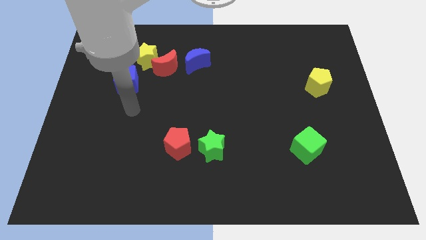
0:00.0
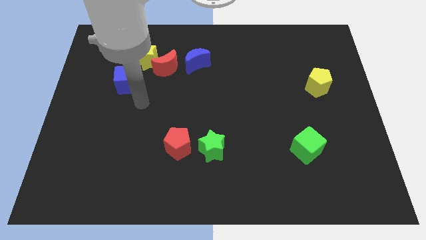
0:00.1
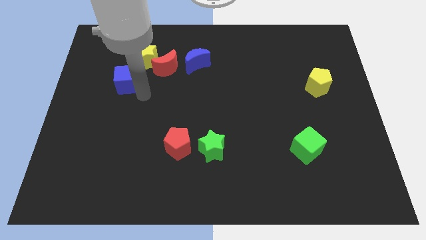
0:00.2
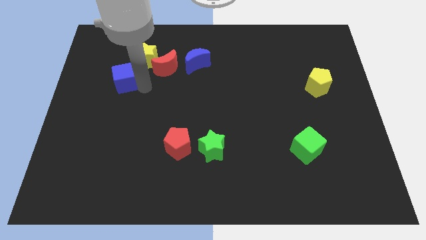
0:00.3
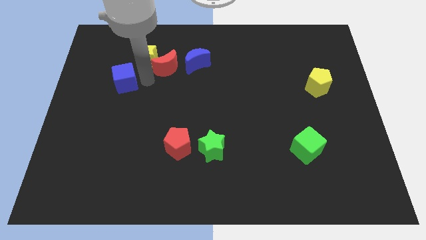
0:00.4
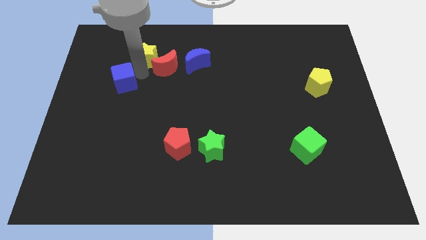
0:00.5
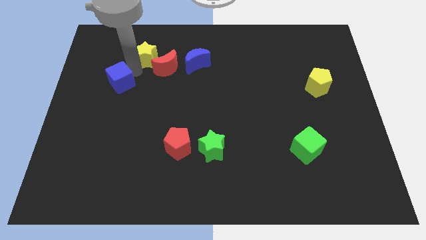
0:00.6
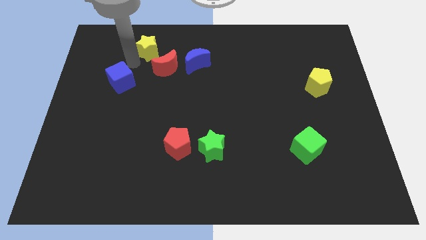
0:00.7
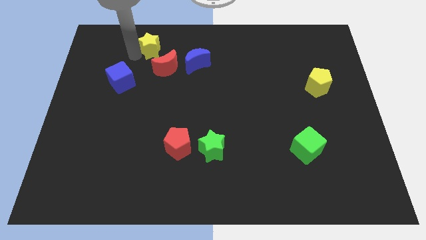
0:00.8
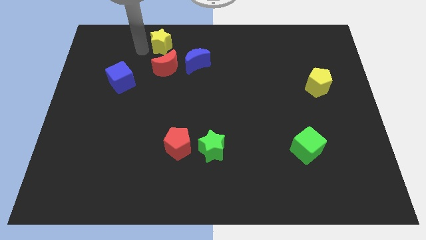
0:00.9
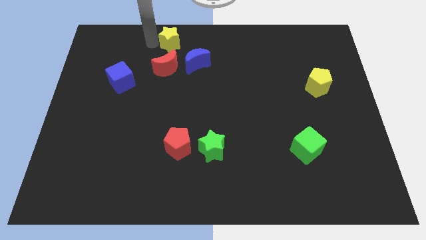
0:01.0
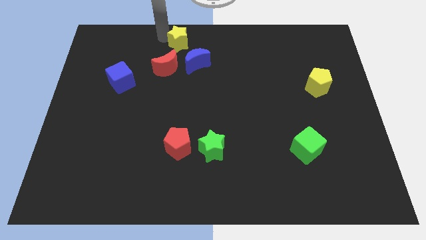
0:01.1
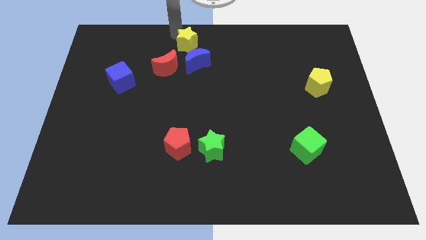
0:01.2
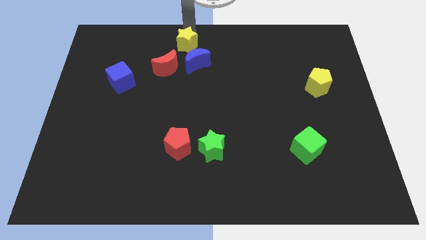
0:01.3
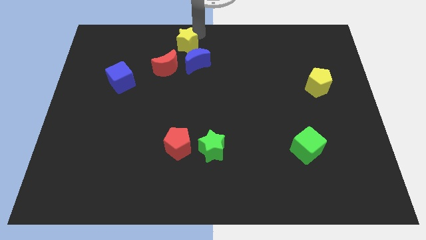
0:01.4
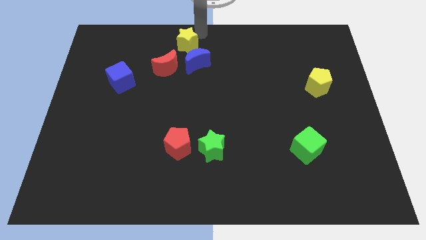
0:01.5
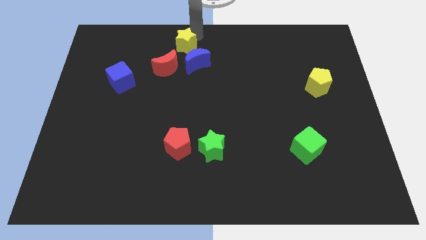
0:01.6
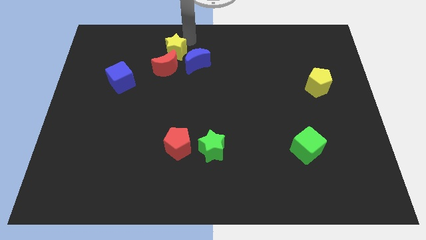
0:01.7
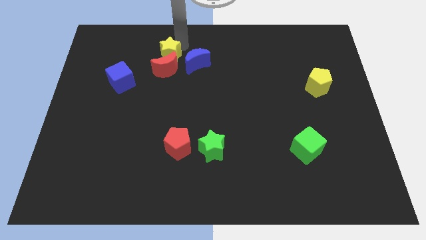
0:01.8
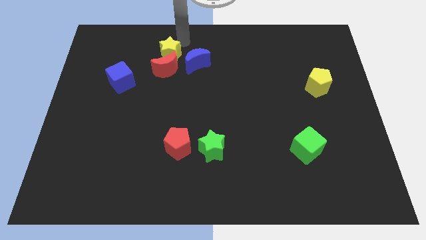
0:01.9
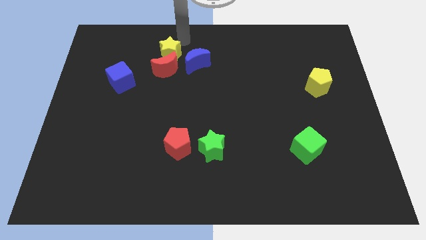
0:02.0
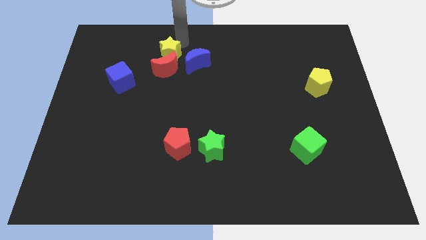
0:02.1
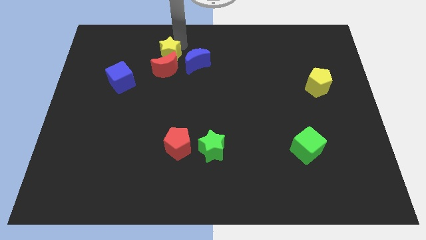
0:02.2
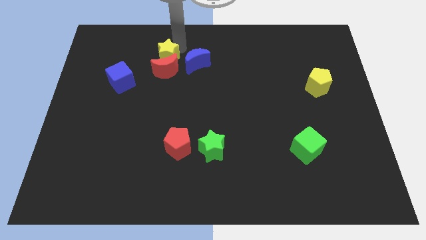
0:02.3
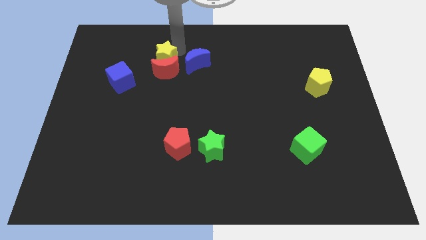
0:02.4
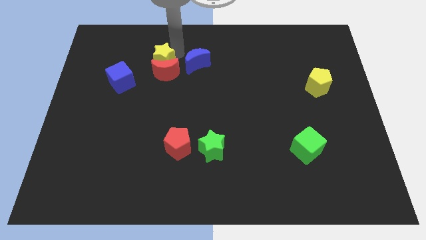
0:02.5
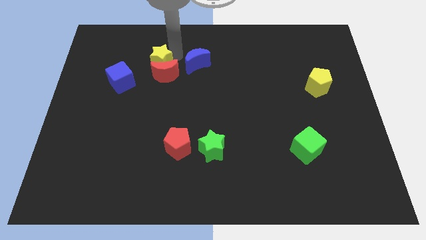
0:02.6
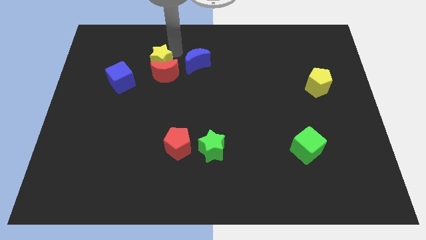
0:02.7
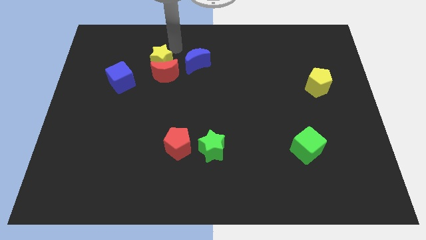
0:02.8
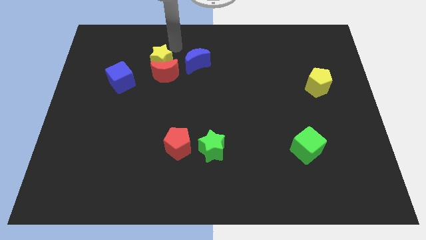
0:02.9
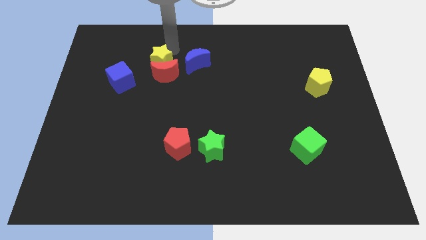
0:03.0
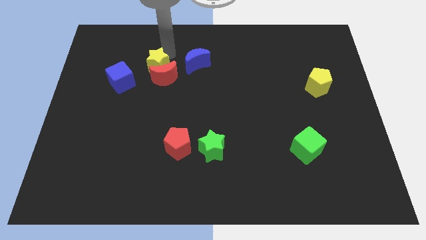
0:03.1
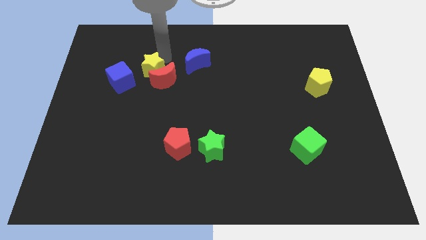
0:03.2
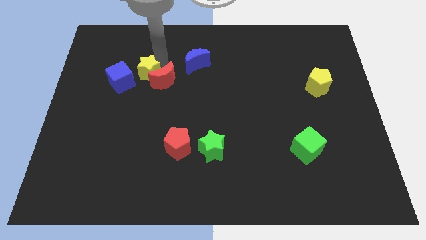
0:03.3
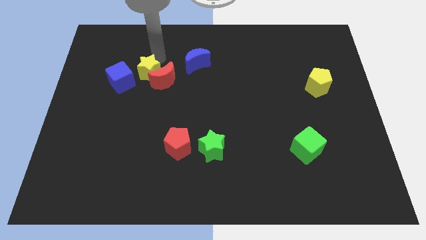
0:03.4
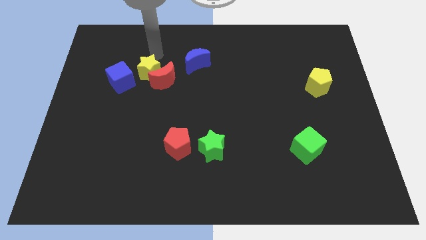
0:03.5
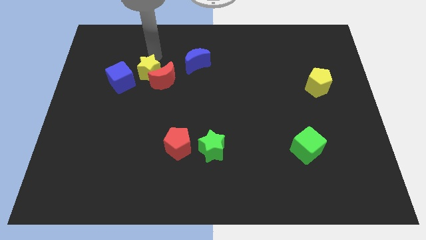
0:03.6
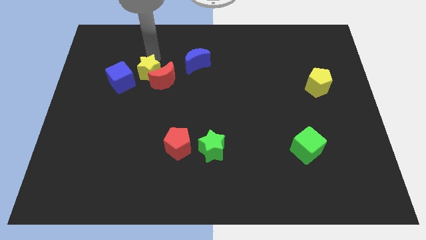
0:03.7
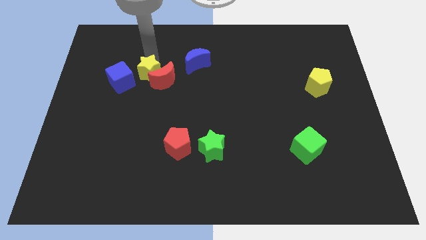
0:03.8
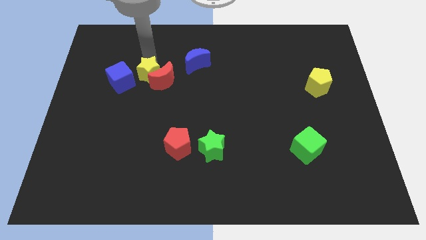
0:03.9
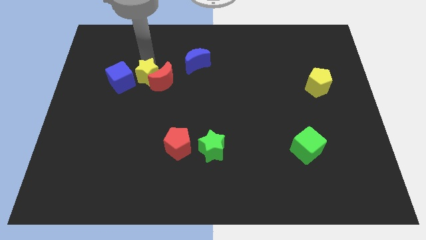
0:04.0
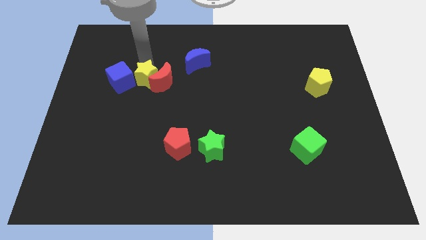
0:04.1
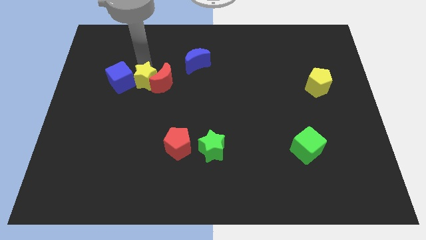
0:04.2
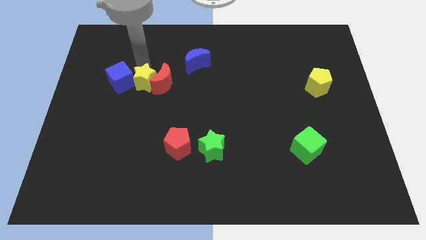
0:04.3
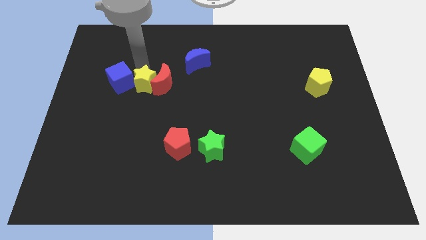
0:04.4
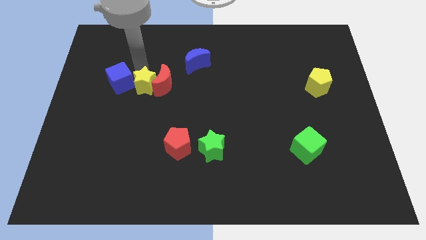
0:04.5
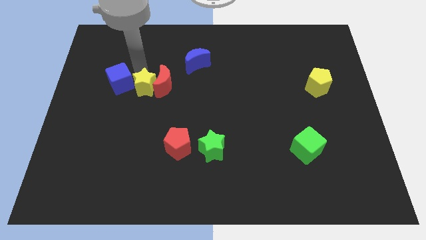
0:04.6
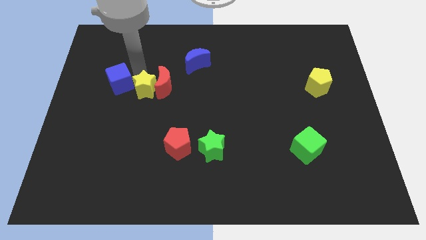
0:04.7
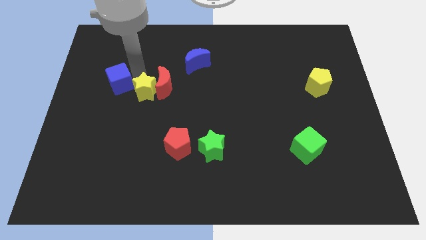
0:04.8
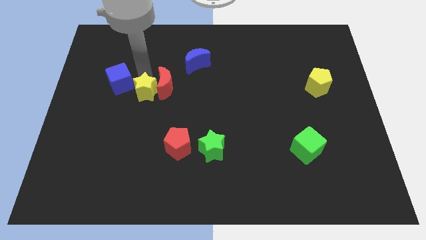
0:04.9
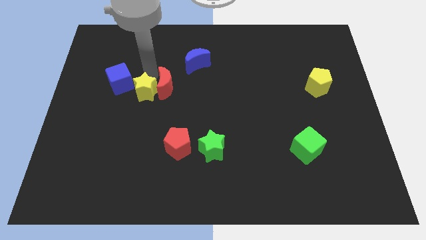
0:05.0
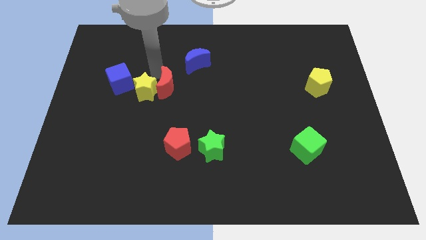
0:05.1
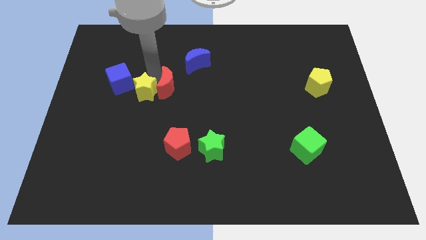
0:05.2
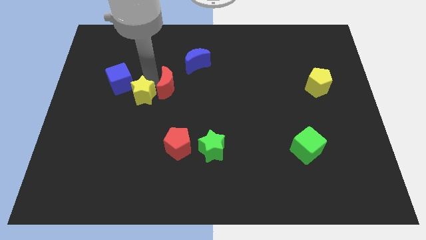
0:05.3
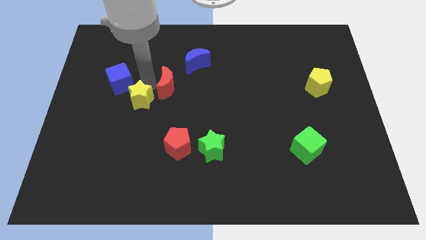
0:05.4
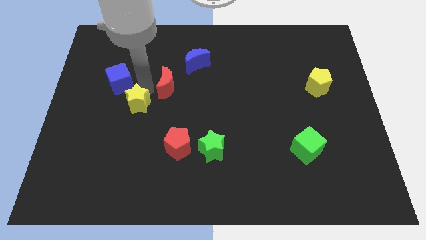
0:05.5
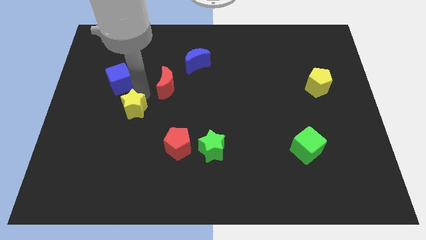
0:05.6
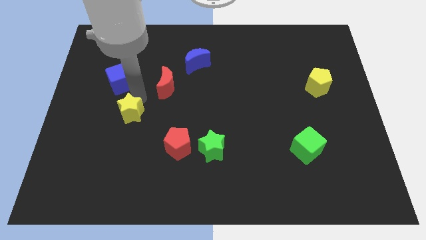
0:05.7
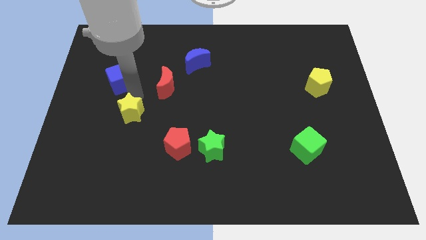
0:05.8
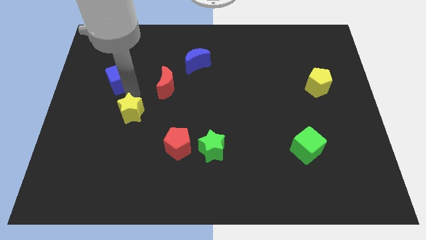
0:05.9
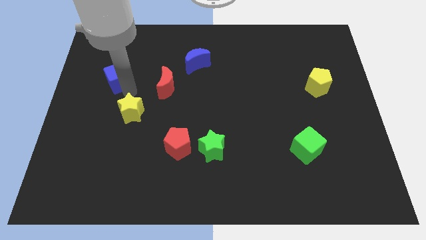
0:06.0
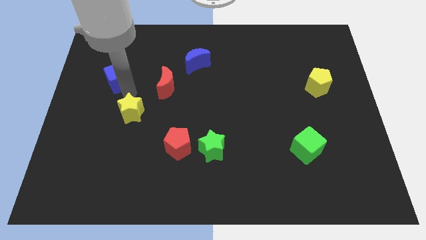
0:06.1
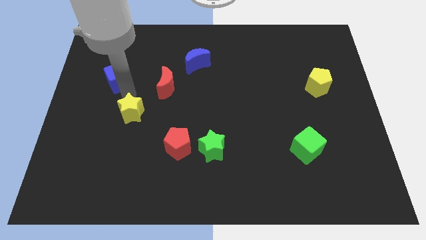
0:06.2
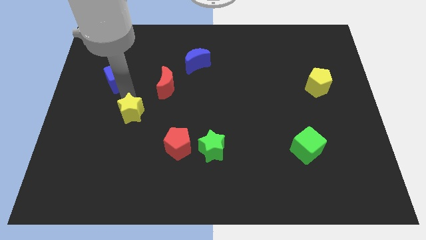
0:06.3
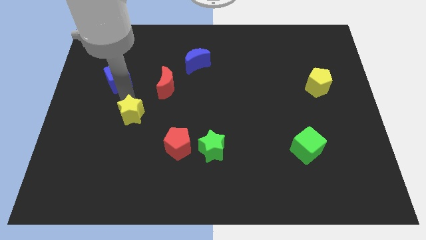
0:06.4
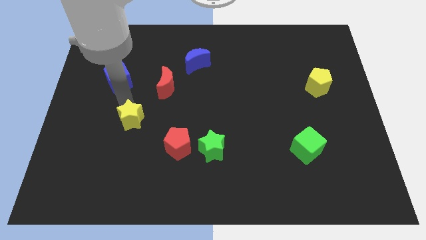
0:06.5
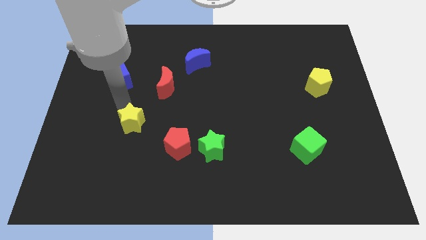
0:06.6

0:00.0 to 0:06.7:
slide the yellow star downwards

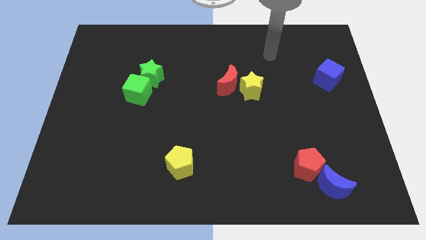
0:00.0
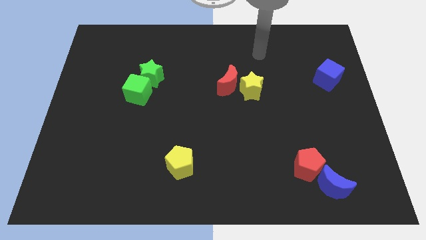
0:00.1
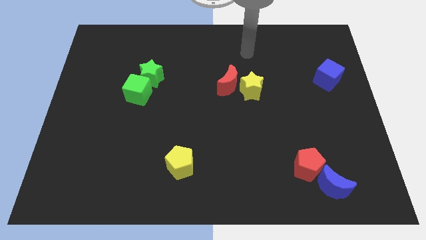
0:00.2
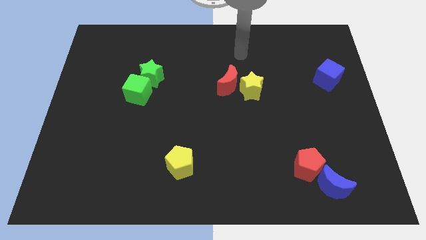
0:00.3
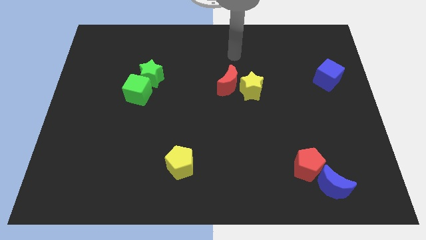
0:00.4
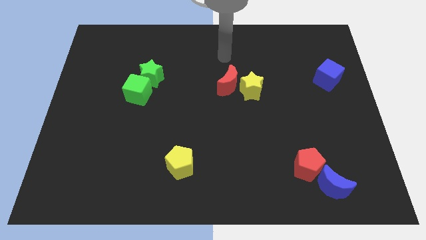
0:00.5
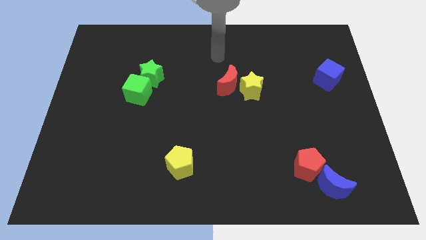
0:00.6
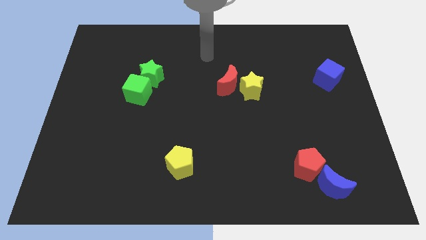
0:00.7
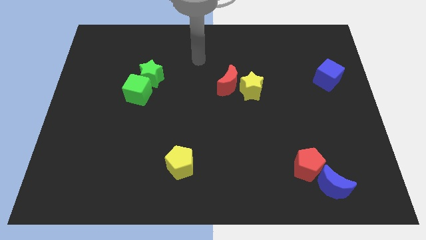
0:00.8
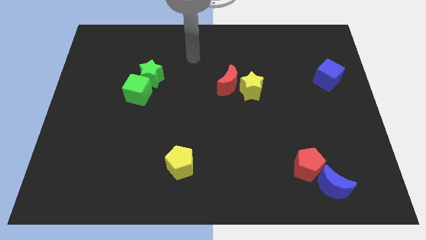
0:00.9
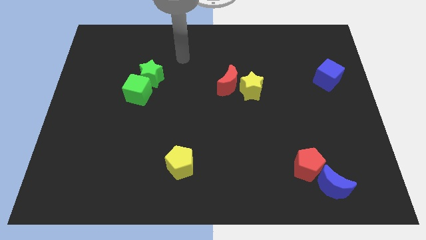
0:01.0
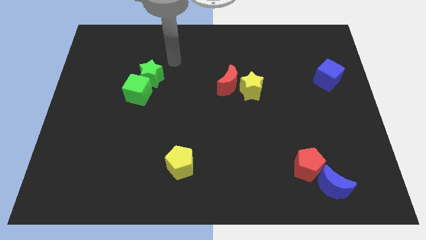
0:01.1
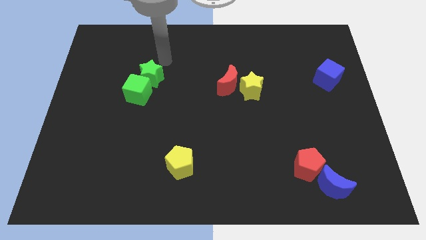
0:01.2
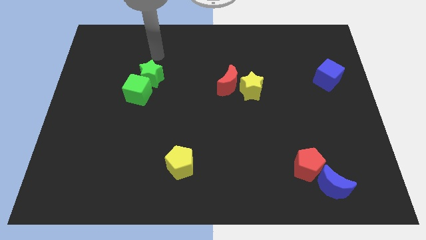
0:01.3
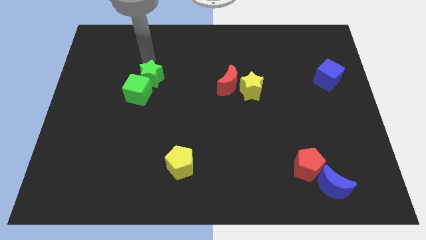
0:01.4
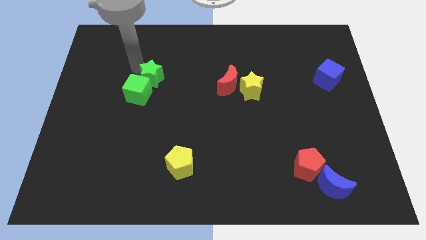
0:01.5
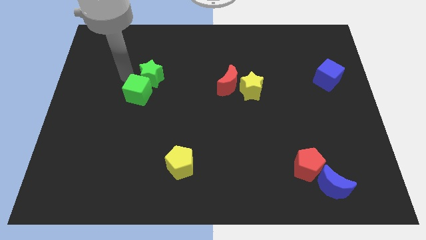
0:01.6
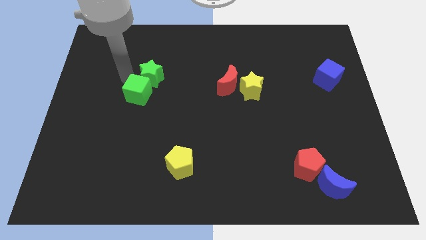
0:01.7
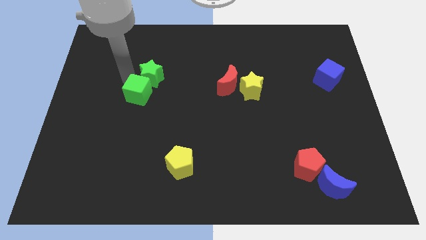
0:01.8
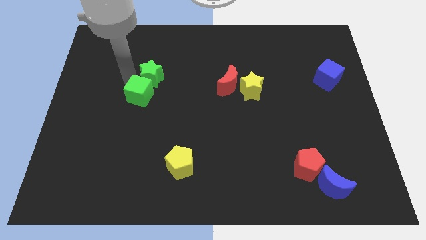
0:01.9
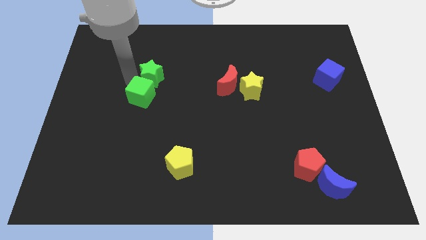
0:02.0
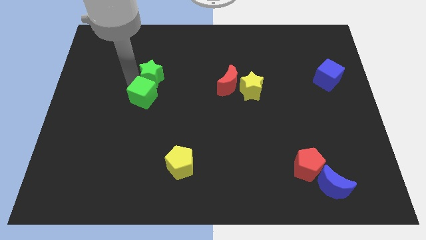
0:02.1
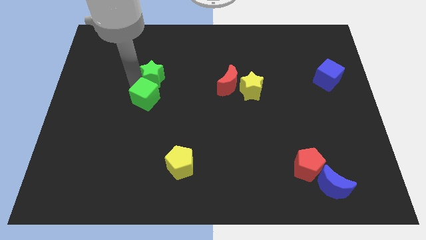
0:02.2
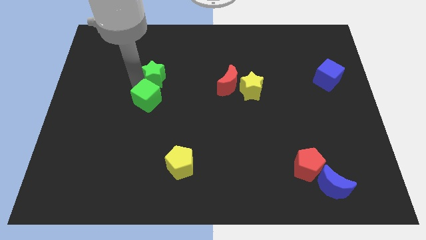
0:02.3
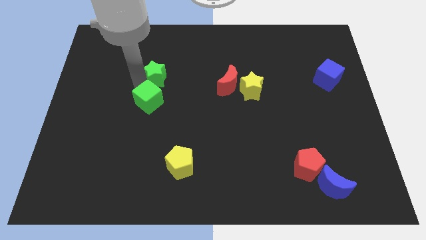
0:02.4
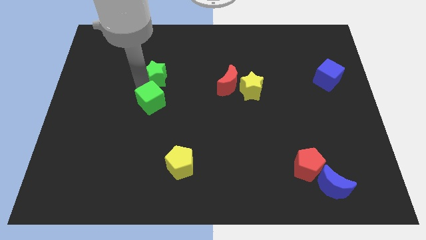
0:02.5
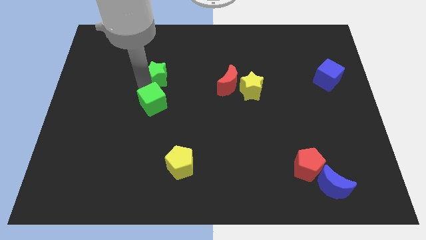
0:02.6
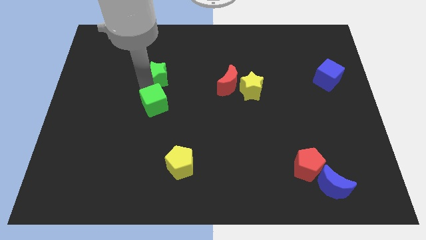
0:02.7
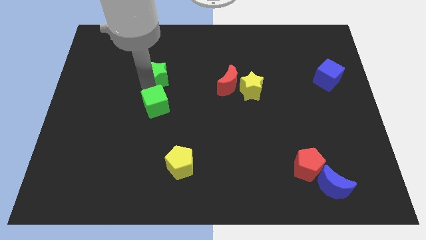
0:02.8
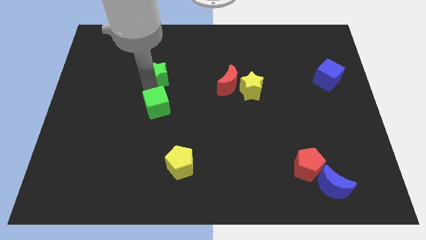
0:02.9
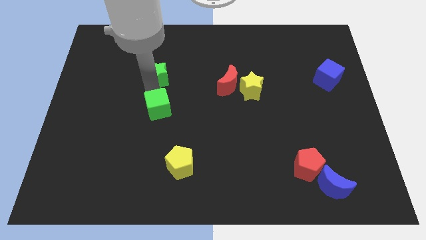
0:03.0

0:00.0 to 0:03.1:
push the green cube a little bit downwards and to the right
